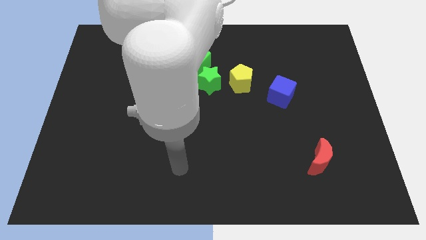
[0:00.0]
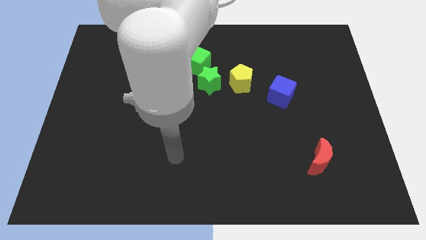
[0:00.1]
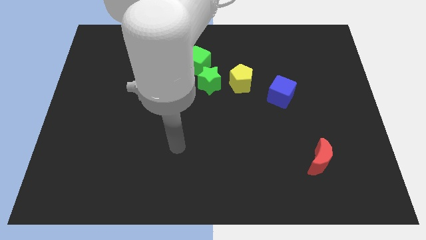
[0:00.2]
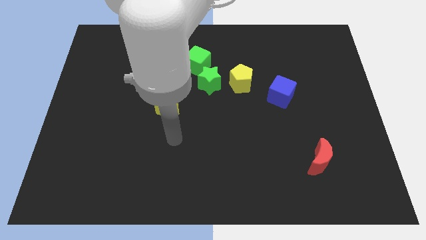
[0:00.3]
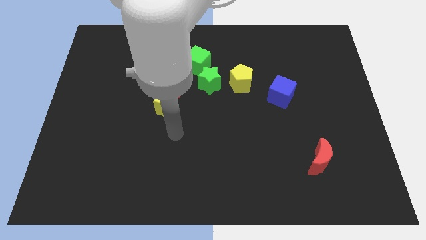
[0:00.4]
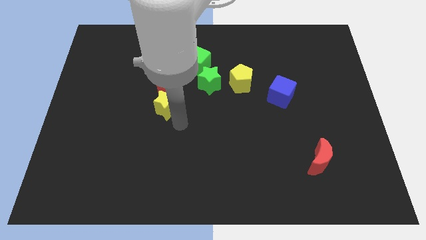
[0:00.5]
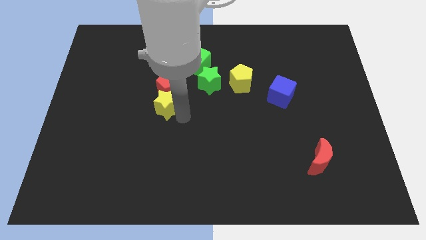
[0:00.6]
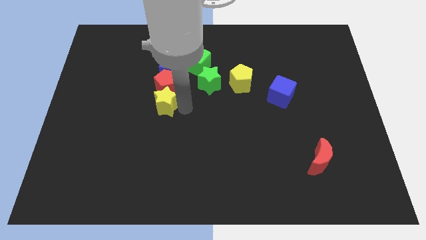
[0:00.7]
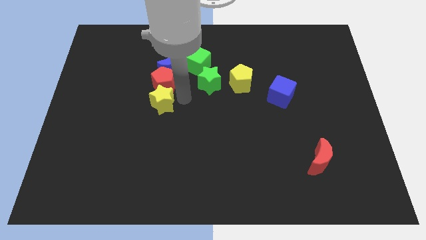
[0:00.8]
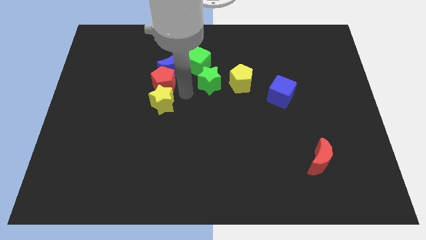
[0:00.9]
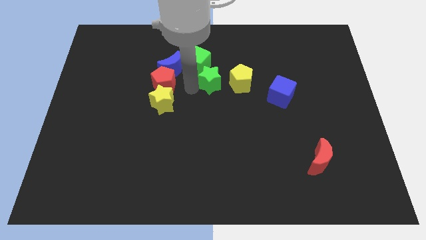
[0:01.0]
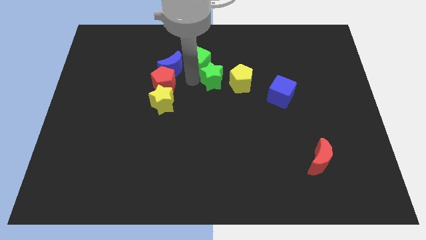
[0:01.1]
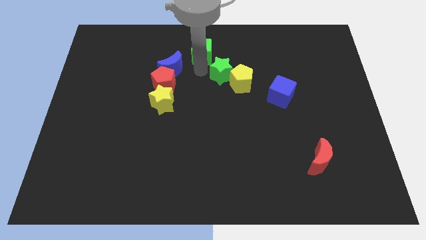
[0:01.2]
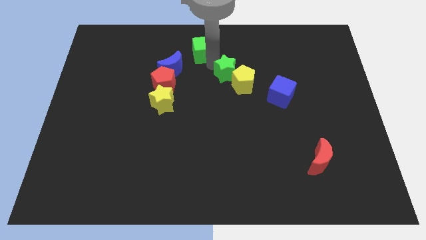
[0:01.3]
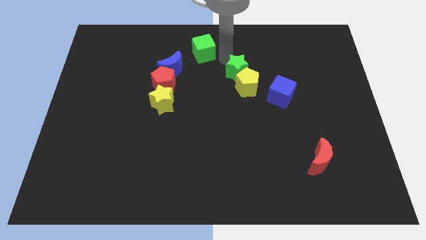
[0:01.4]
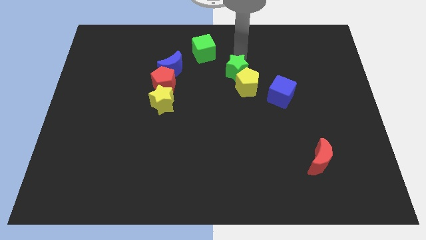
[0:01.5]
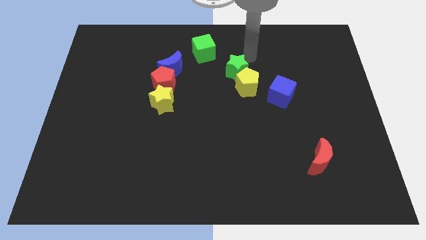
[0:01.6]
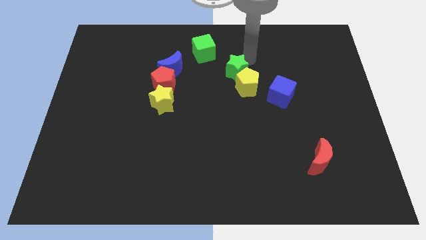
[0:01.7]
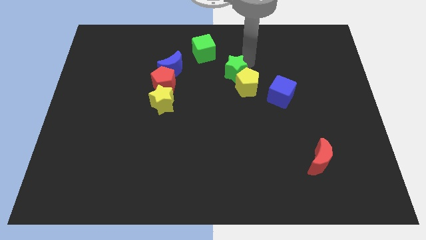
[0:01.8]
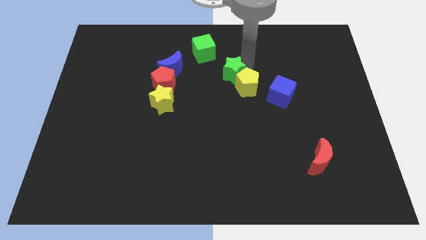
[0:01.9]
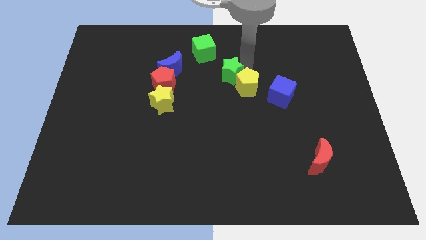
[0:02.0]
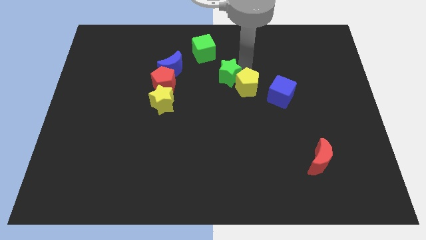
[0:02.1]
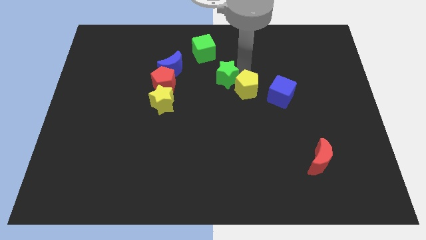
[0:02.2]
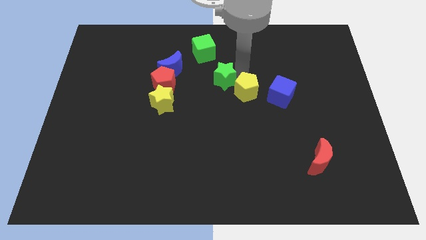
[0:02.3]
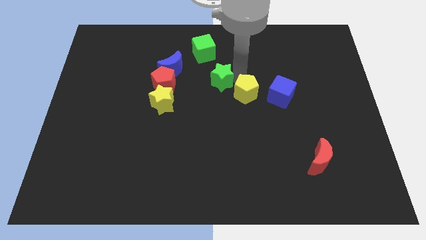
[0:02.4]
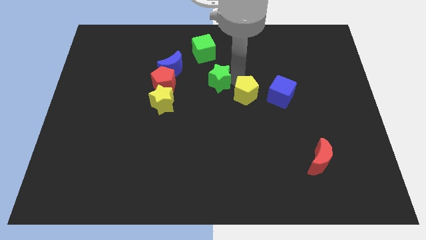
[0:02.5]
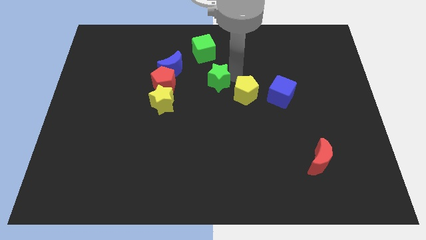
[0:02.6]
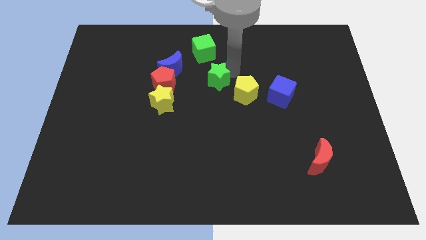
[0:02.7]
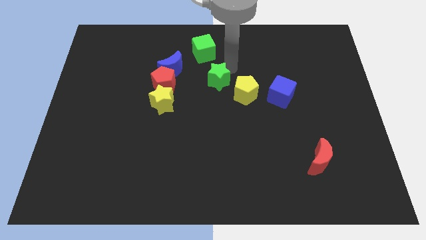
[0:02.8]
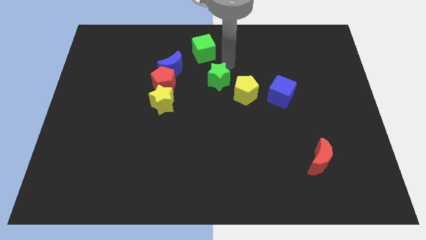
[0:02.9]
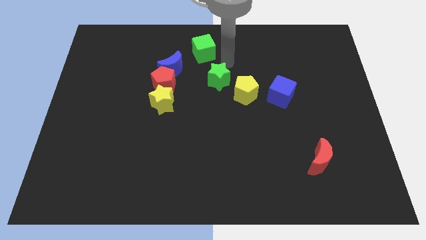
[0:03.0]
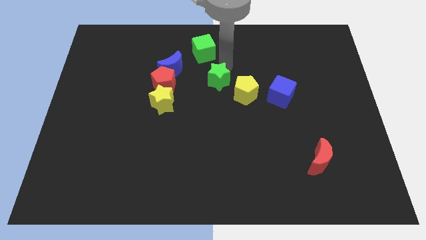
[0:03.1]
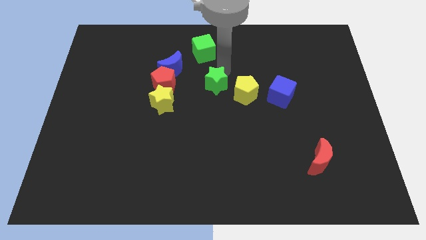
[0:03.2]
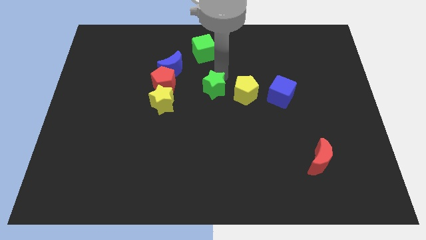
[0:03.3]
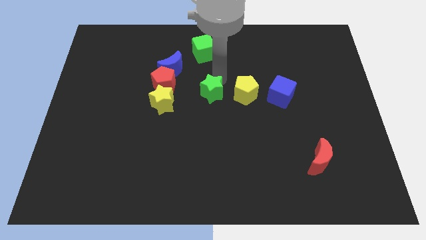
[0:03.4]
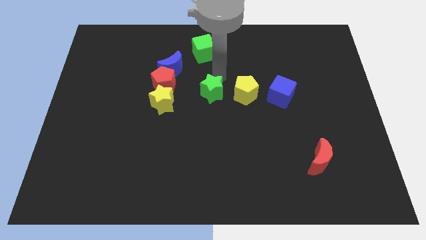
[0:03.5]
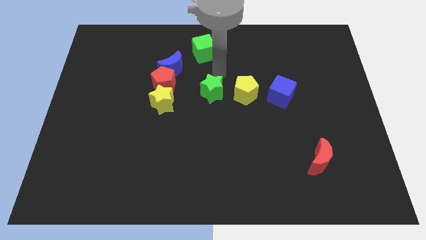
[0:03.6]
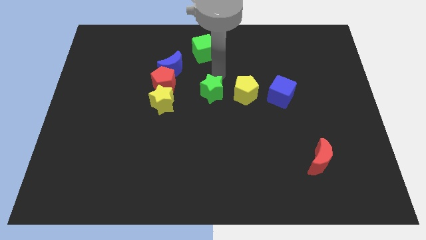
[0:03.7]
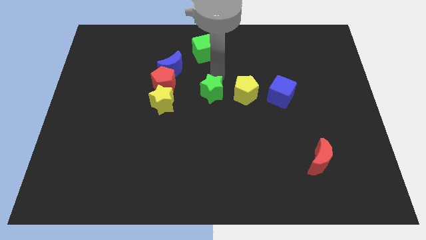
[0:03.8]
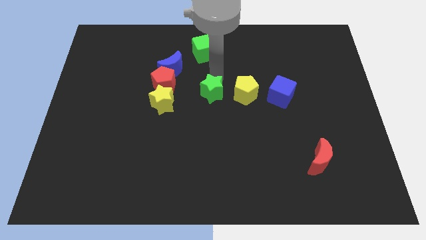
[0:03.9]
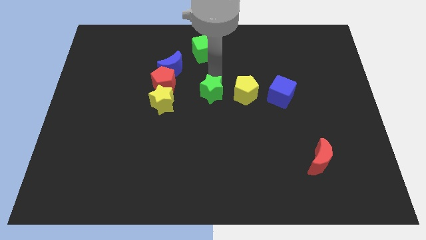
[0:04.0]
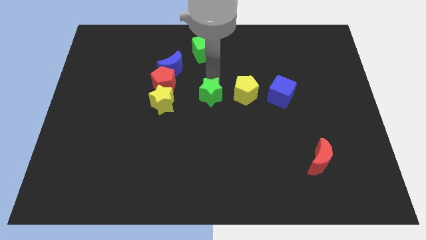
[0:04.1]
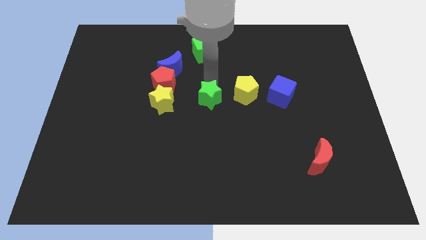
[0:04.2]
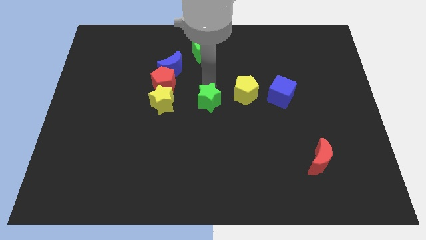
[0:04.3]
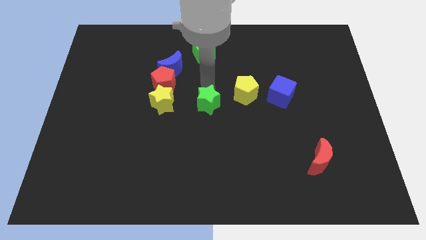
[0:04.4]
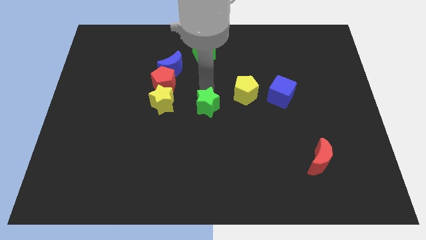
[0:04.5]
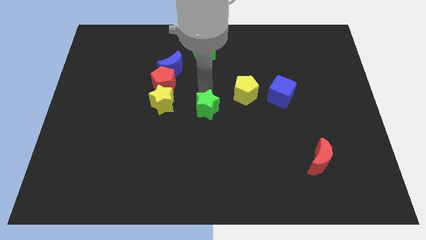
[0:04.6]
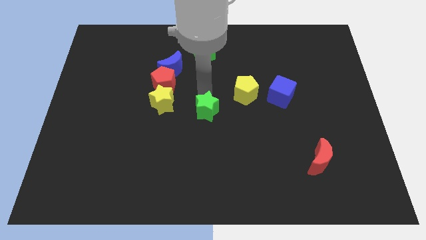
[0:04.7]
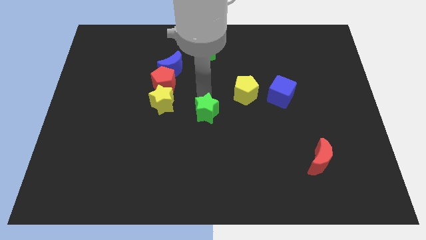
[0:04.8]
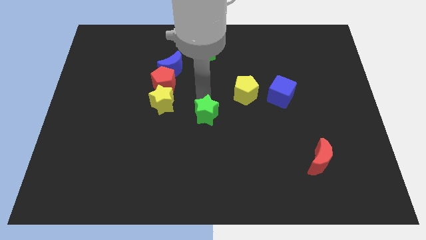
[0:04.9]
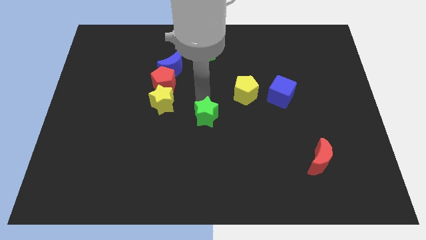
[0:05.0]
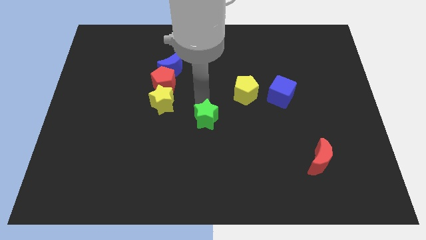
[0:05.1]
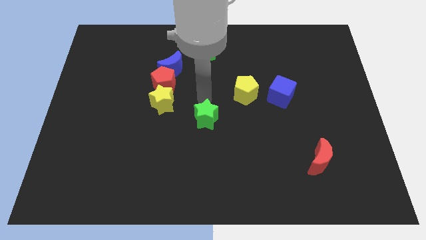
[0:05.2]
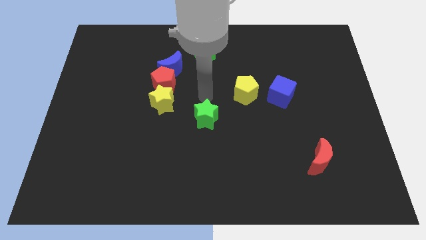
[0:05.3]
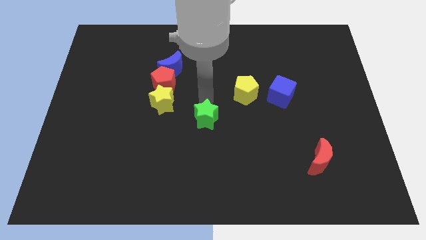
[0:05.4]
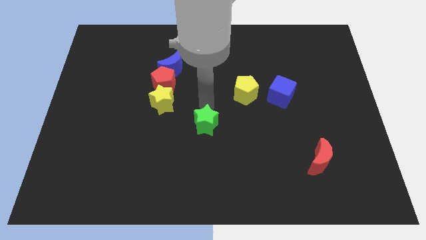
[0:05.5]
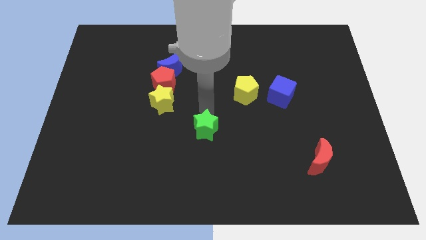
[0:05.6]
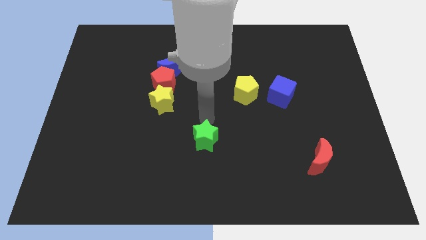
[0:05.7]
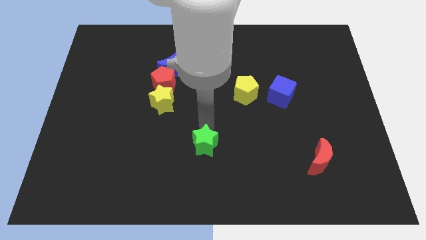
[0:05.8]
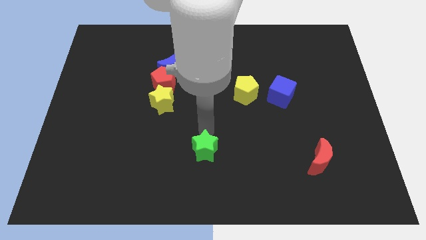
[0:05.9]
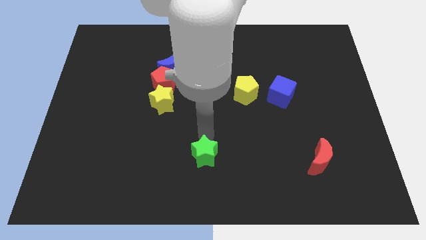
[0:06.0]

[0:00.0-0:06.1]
put the green star to the bottom side
